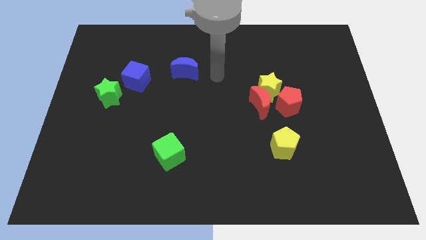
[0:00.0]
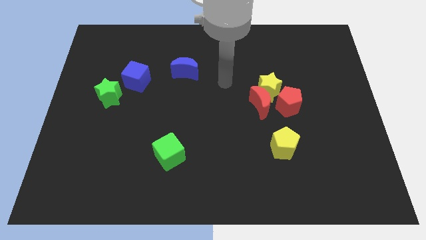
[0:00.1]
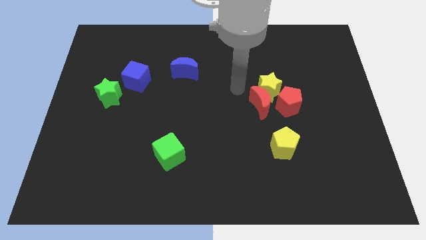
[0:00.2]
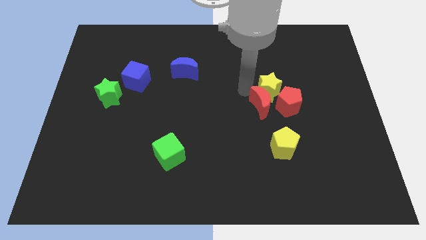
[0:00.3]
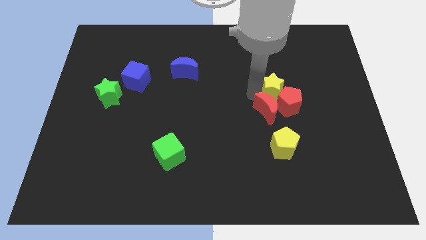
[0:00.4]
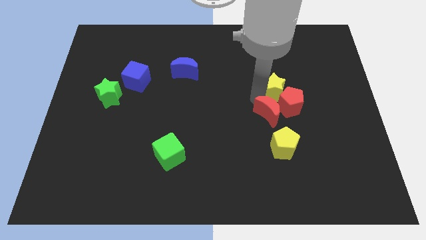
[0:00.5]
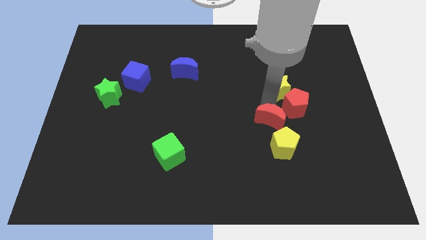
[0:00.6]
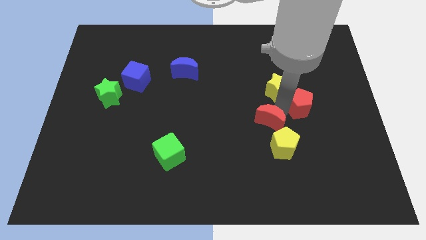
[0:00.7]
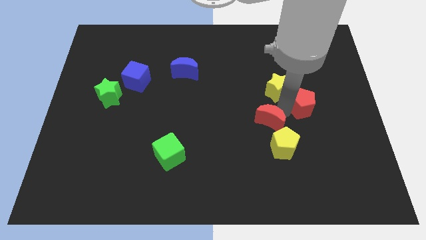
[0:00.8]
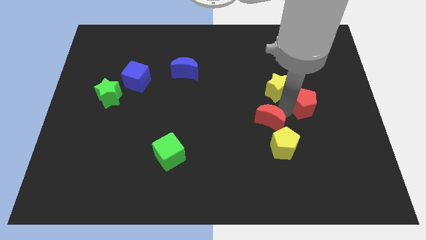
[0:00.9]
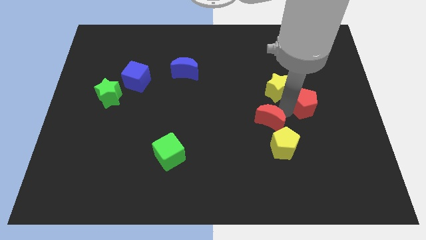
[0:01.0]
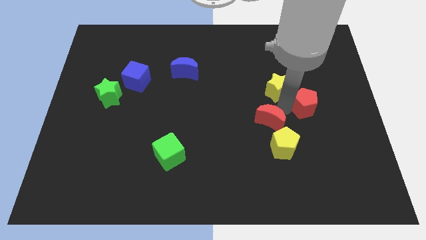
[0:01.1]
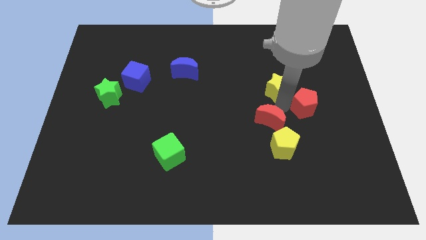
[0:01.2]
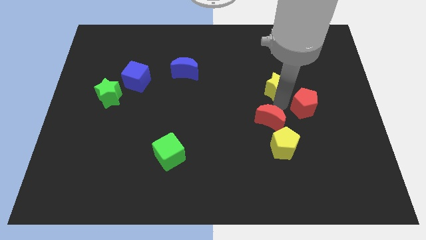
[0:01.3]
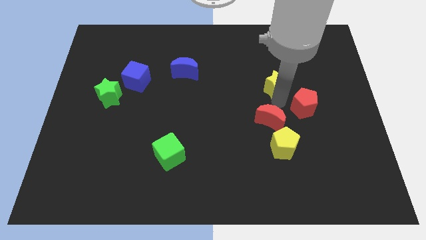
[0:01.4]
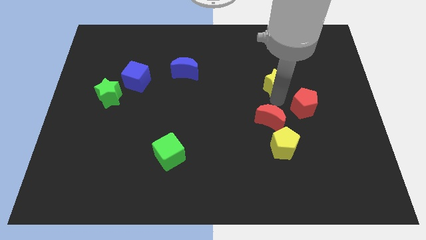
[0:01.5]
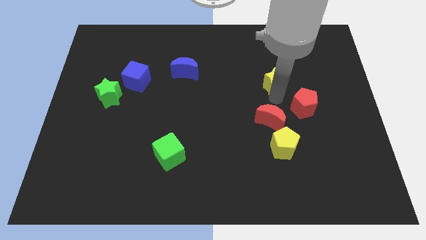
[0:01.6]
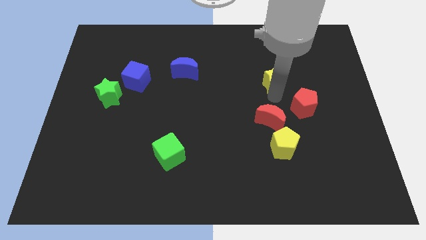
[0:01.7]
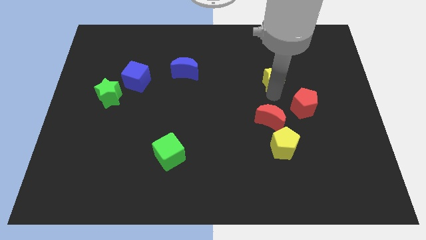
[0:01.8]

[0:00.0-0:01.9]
separate the yellow star from the red moon and red pentagon

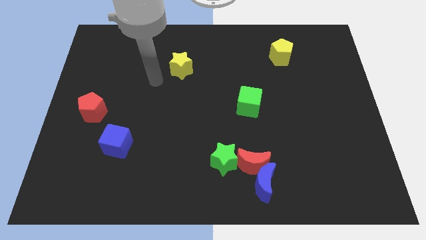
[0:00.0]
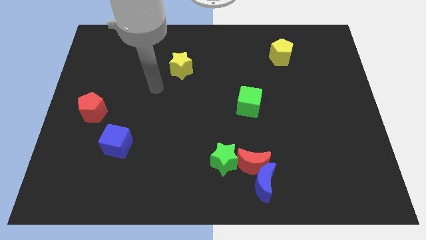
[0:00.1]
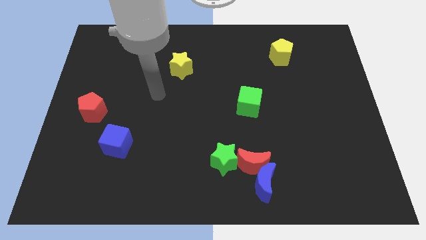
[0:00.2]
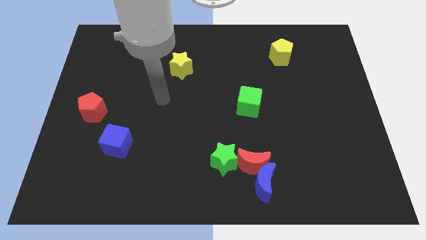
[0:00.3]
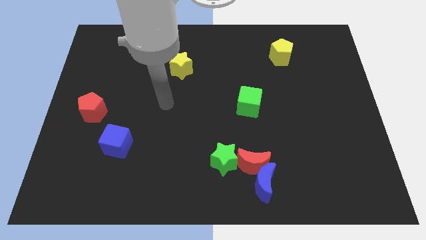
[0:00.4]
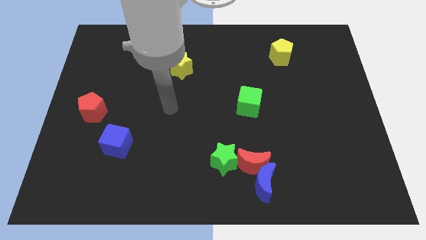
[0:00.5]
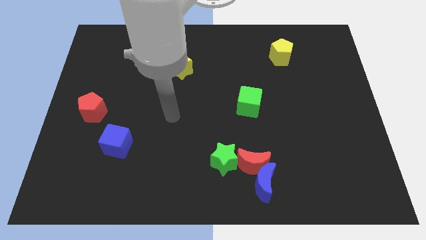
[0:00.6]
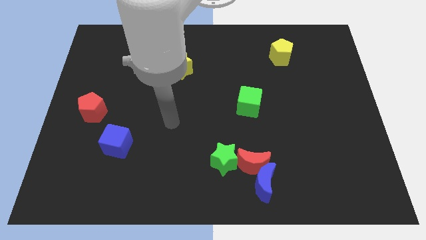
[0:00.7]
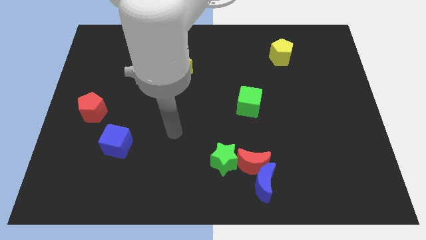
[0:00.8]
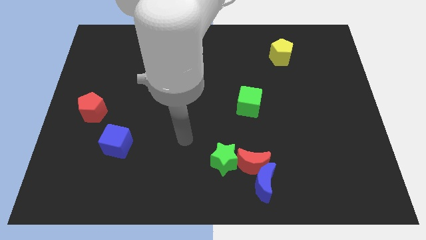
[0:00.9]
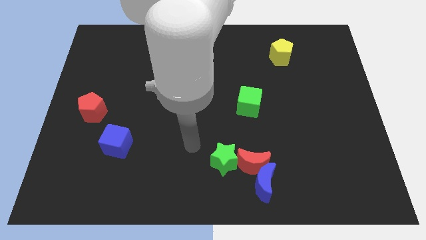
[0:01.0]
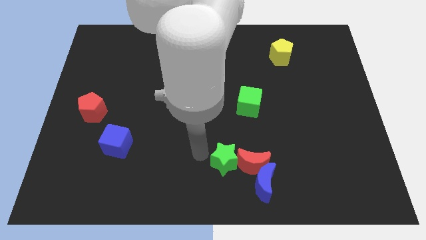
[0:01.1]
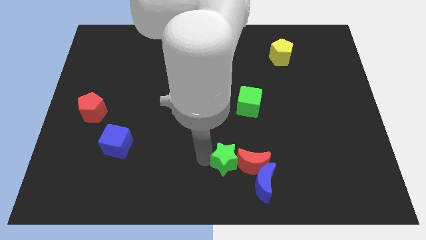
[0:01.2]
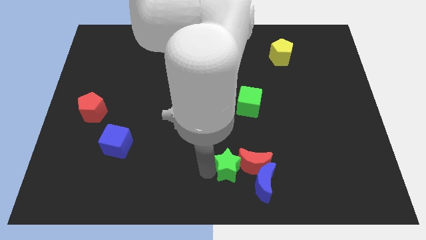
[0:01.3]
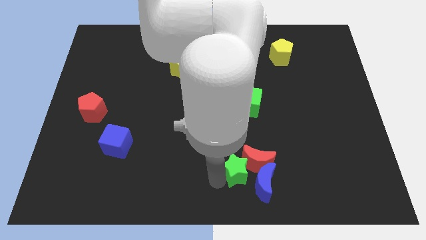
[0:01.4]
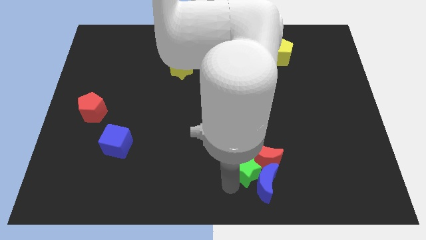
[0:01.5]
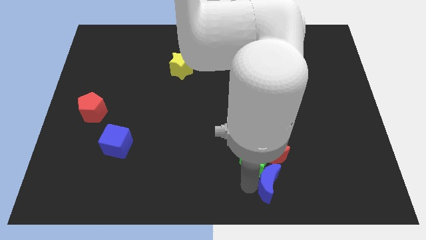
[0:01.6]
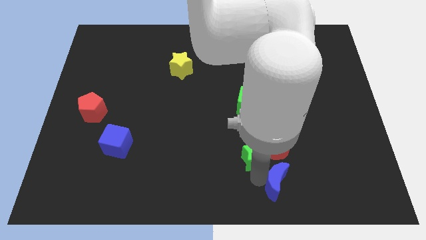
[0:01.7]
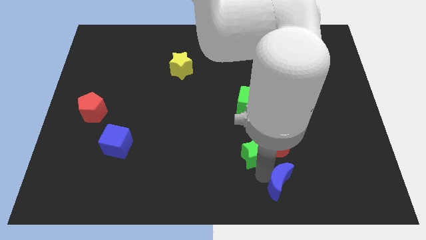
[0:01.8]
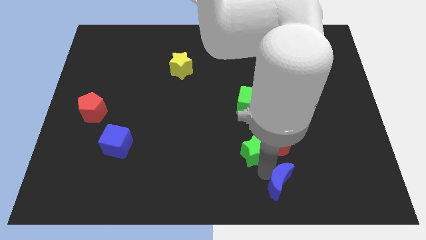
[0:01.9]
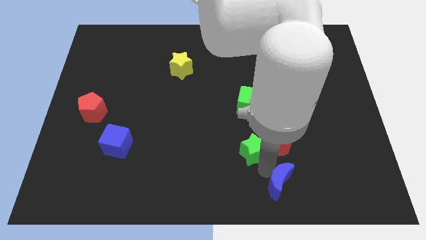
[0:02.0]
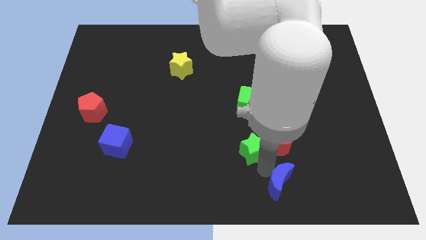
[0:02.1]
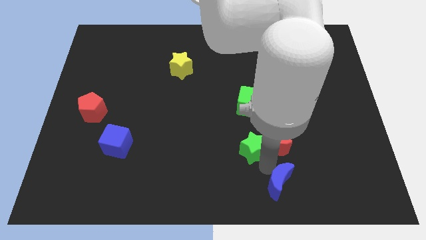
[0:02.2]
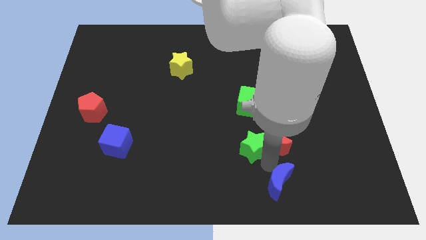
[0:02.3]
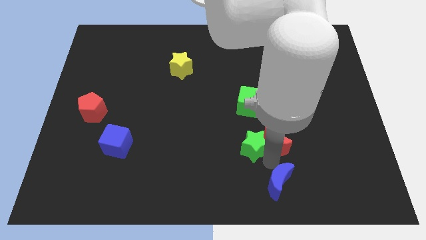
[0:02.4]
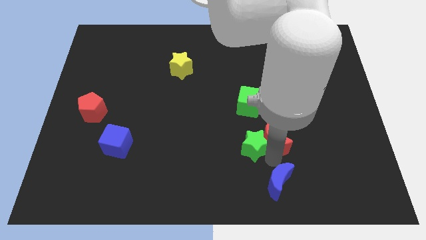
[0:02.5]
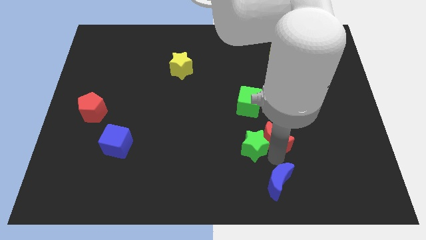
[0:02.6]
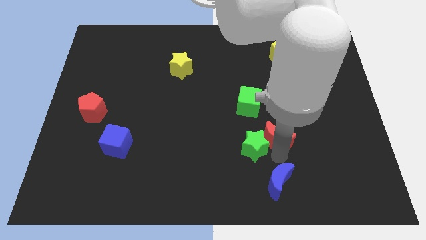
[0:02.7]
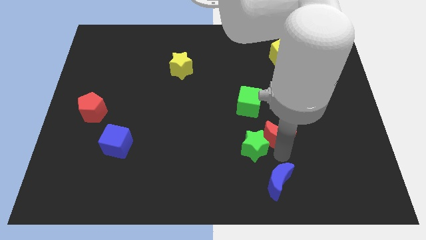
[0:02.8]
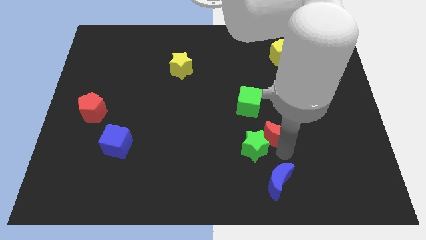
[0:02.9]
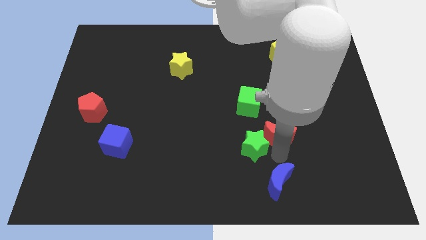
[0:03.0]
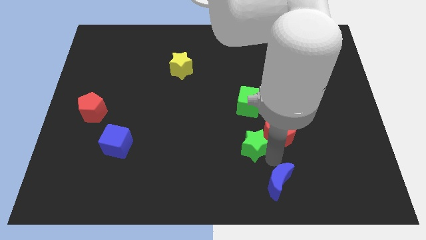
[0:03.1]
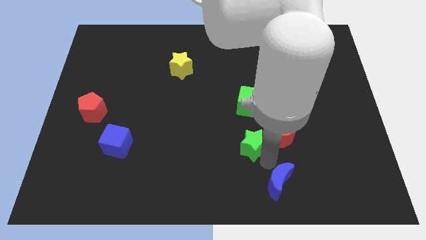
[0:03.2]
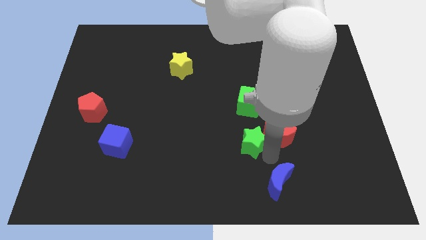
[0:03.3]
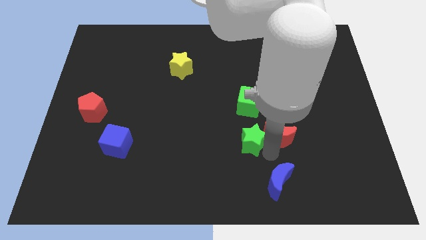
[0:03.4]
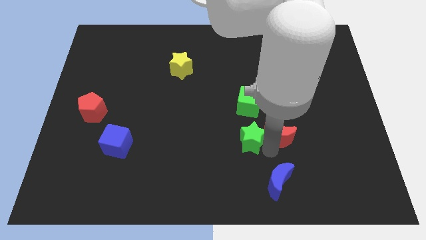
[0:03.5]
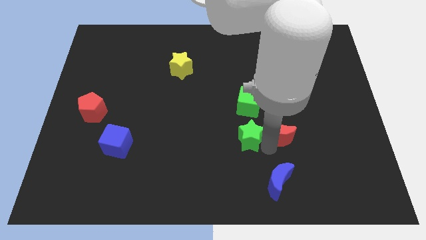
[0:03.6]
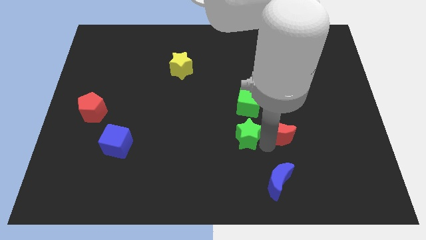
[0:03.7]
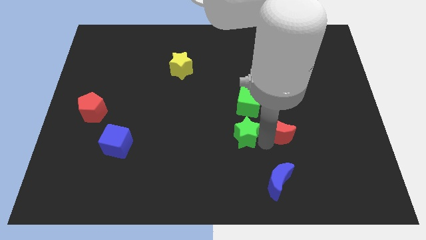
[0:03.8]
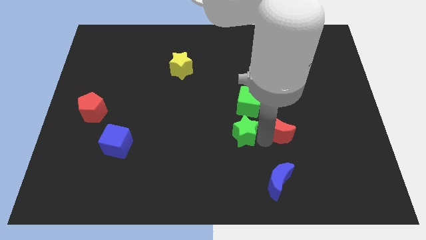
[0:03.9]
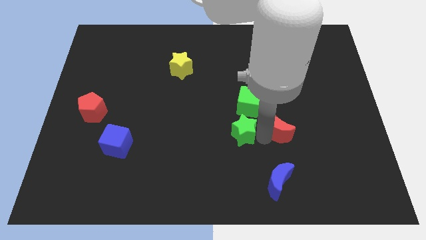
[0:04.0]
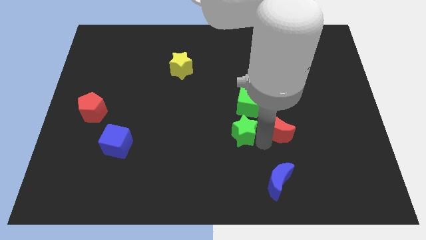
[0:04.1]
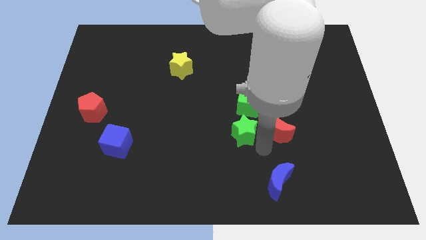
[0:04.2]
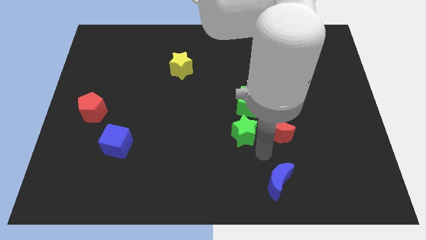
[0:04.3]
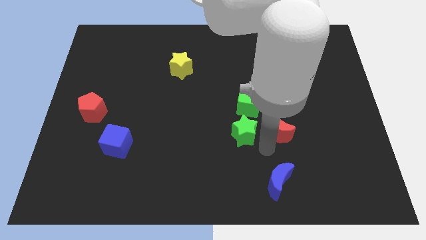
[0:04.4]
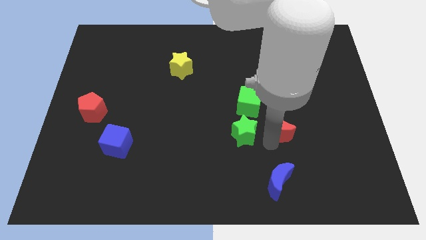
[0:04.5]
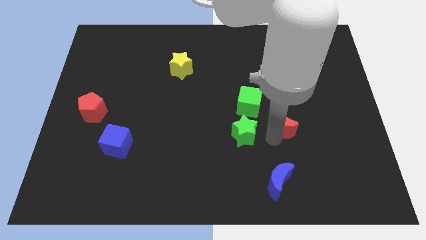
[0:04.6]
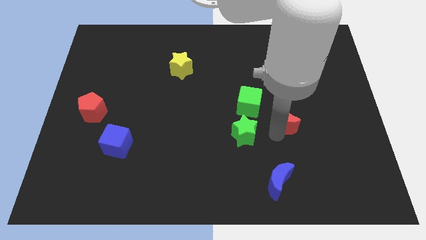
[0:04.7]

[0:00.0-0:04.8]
pull the red moon apart from the blue moon and green star

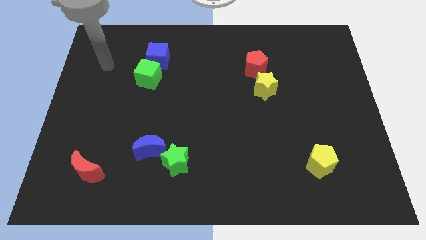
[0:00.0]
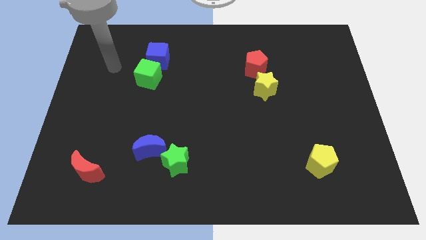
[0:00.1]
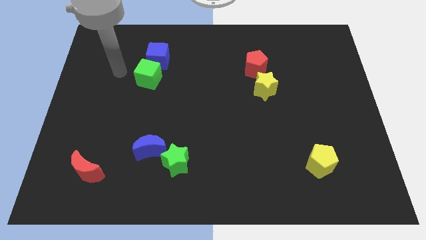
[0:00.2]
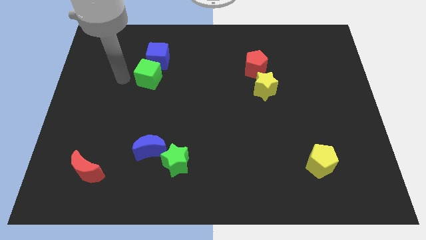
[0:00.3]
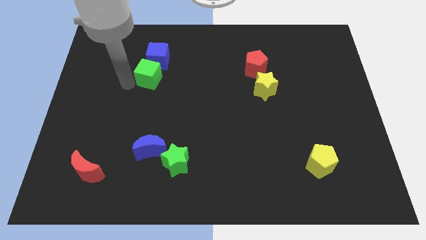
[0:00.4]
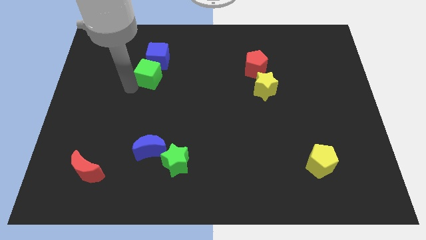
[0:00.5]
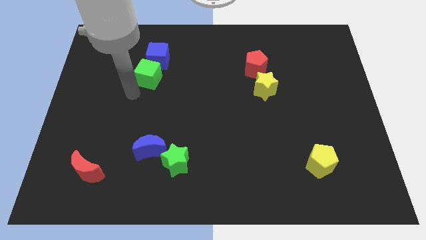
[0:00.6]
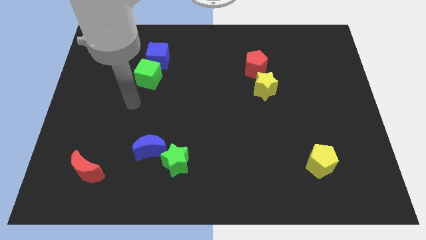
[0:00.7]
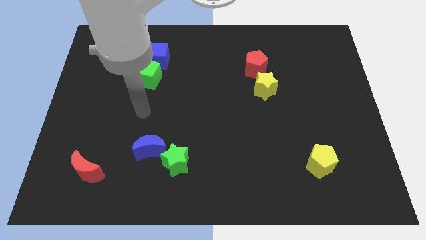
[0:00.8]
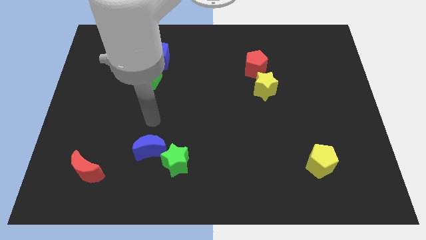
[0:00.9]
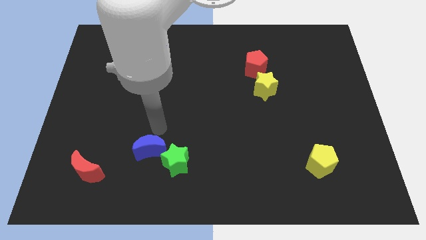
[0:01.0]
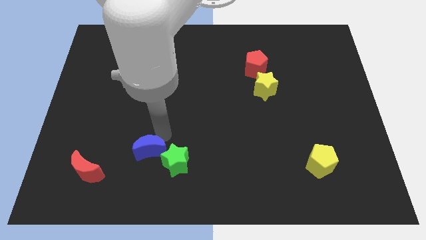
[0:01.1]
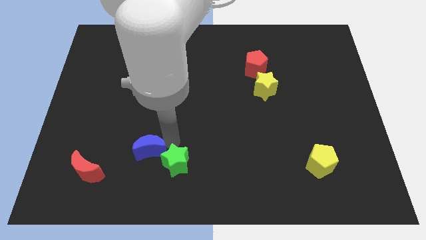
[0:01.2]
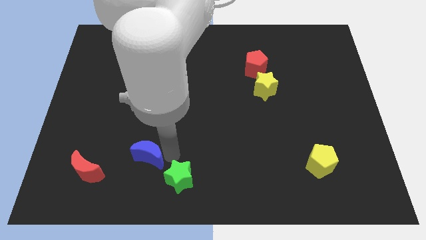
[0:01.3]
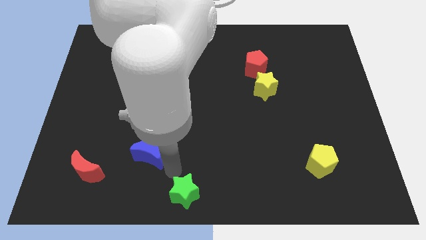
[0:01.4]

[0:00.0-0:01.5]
move the blue moon away from the green star

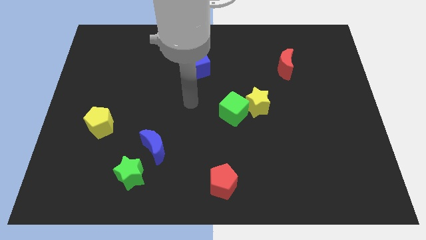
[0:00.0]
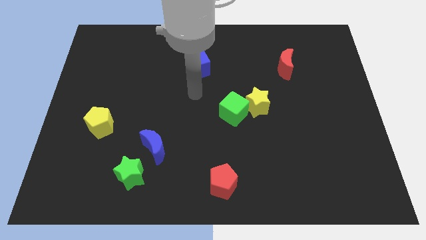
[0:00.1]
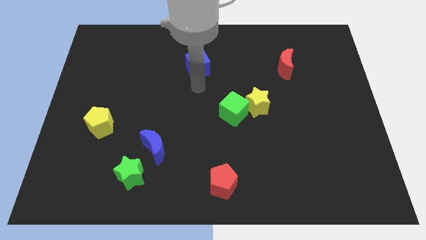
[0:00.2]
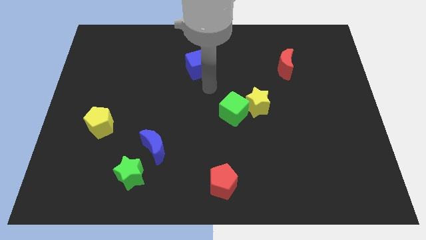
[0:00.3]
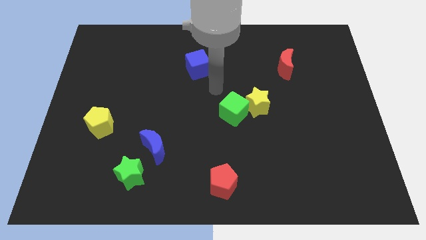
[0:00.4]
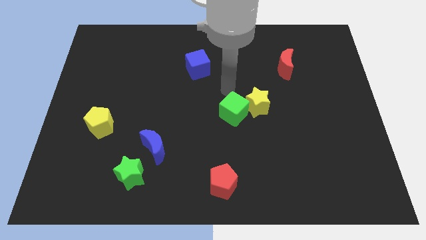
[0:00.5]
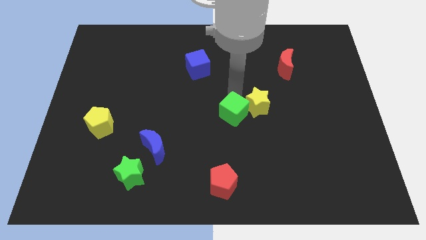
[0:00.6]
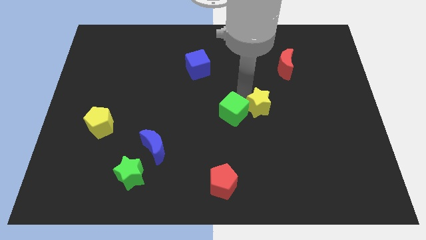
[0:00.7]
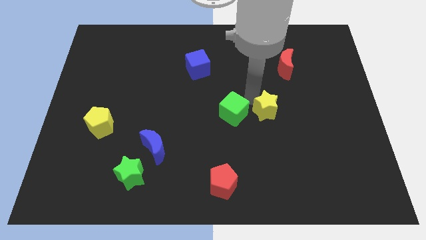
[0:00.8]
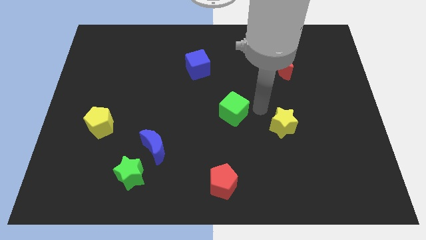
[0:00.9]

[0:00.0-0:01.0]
pull the green cube apart from the yellow star

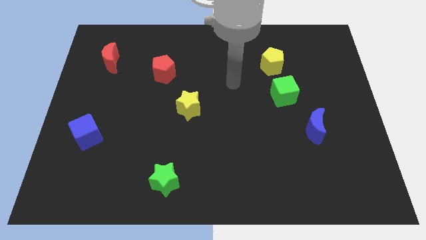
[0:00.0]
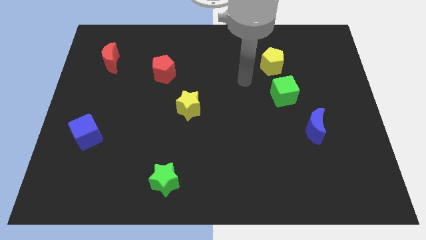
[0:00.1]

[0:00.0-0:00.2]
pull the green cube apart from the yellow pentagon
